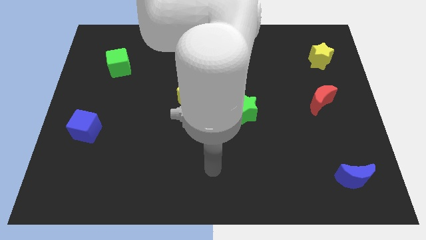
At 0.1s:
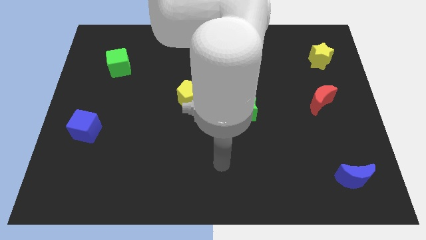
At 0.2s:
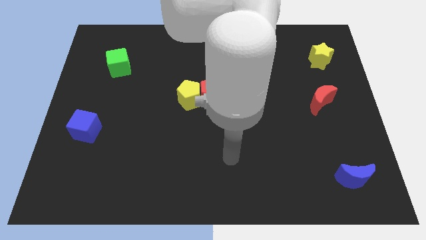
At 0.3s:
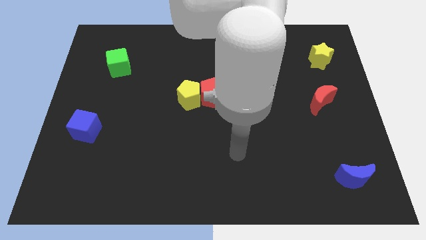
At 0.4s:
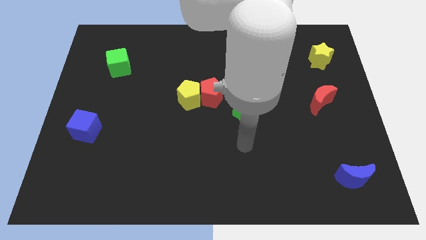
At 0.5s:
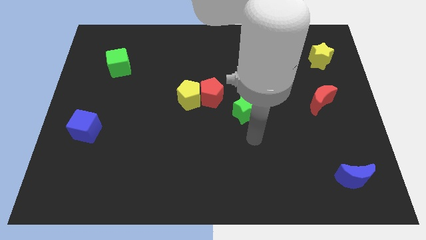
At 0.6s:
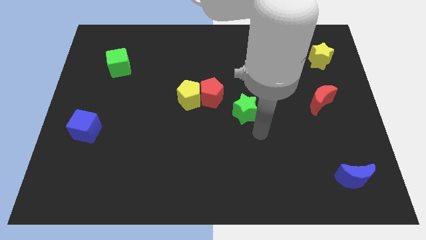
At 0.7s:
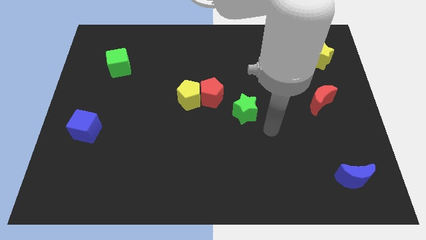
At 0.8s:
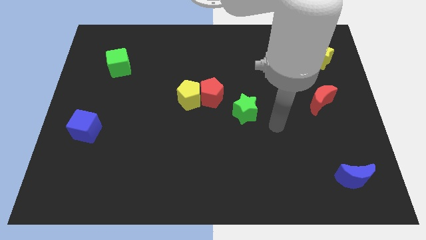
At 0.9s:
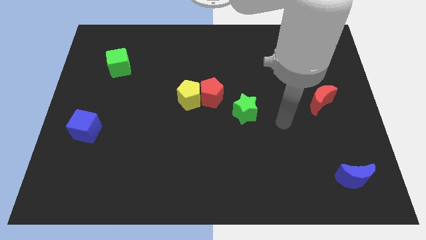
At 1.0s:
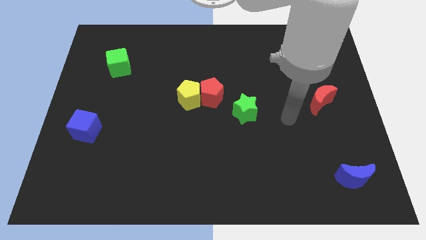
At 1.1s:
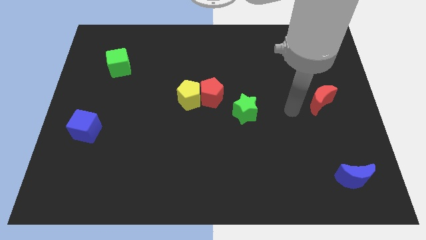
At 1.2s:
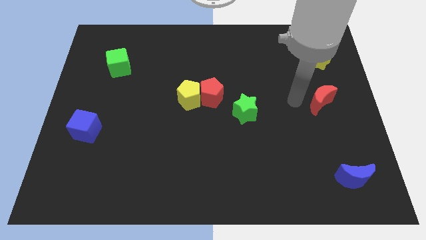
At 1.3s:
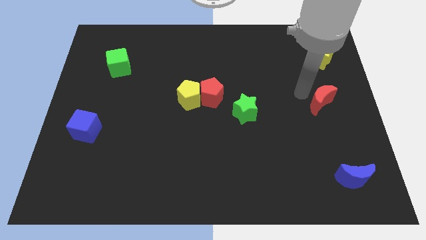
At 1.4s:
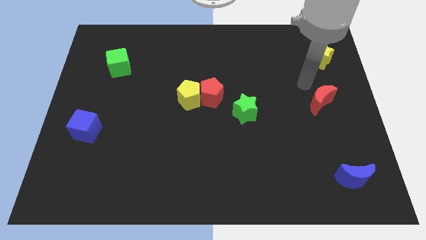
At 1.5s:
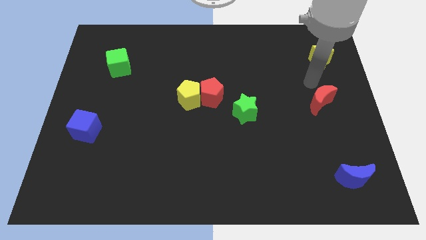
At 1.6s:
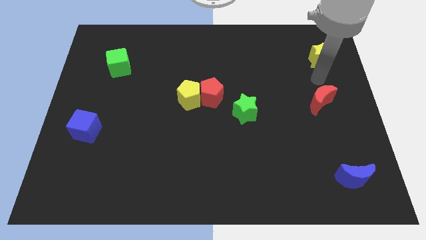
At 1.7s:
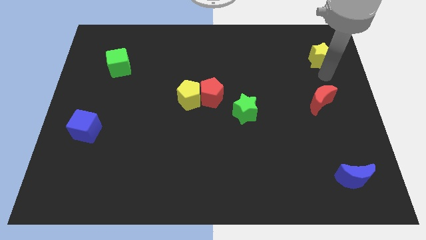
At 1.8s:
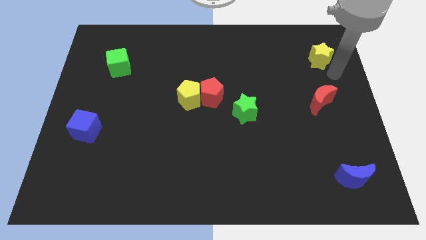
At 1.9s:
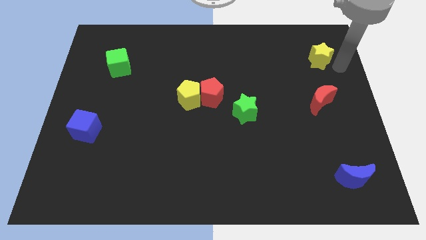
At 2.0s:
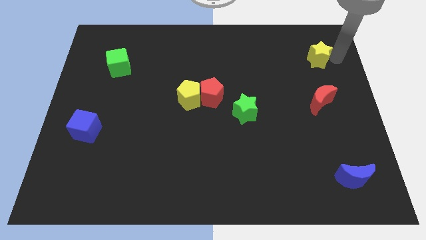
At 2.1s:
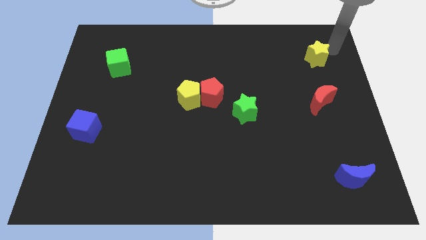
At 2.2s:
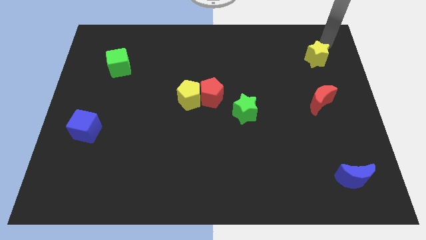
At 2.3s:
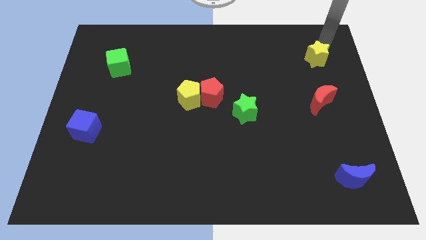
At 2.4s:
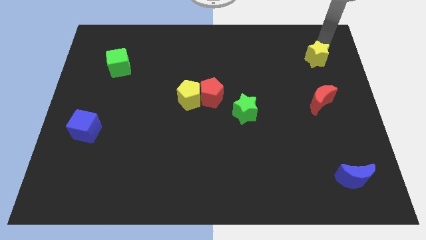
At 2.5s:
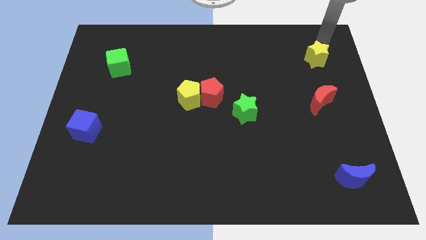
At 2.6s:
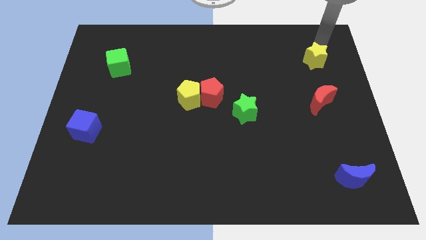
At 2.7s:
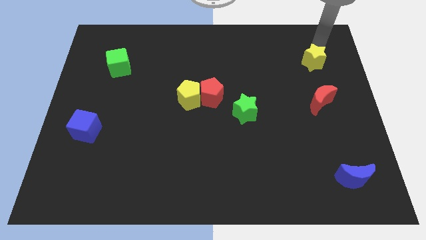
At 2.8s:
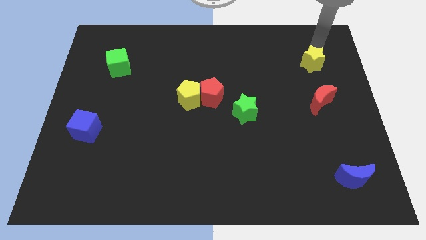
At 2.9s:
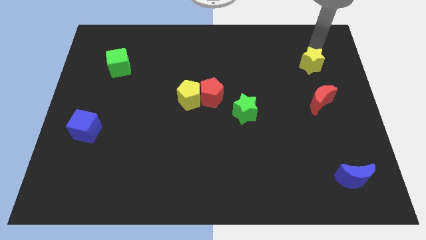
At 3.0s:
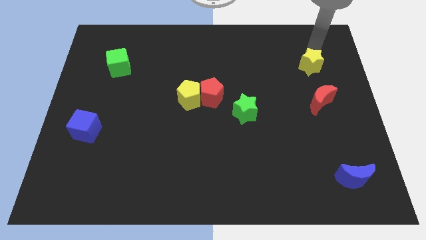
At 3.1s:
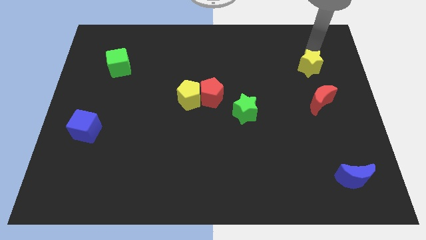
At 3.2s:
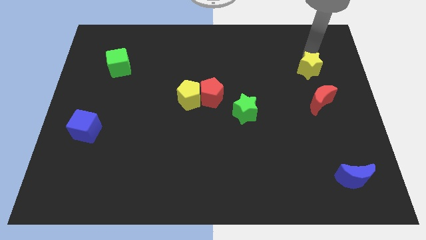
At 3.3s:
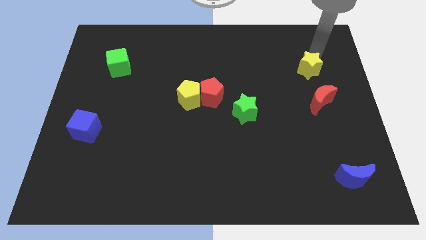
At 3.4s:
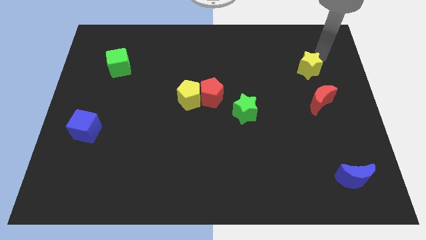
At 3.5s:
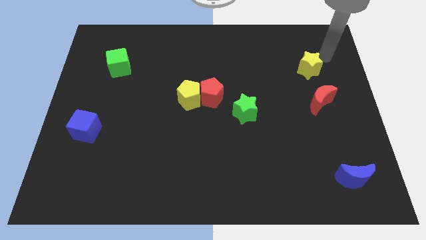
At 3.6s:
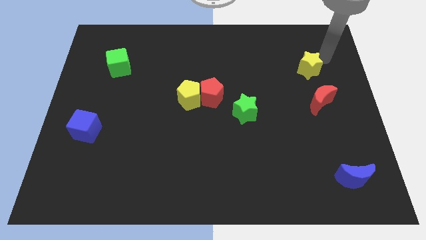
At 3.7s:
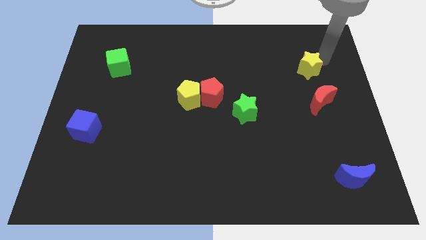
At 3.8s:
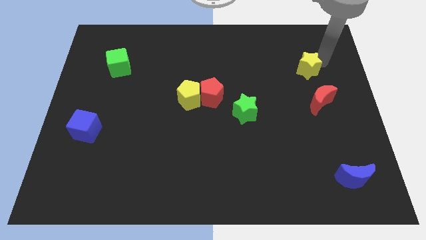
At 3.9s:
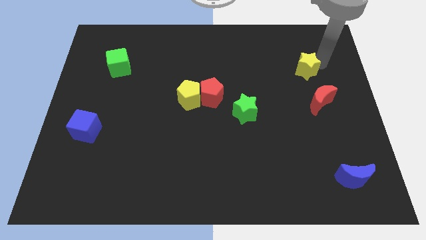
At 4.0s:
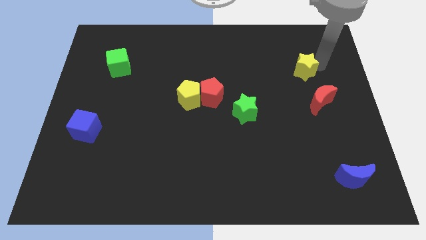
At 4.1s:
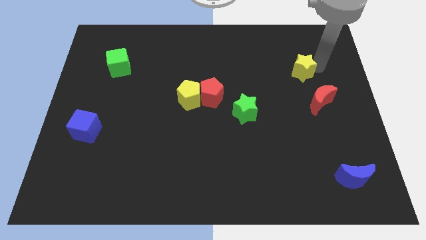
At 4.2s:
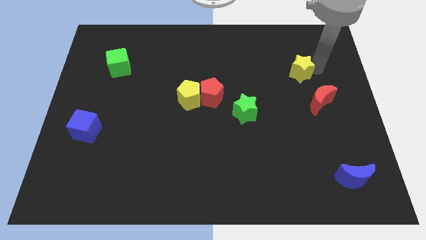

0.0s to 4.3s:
slightly slide the yellow star diagonally downwards and left

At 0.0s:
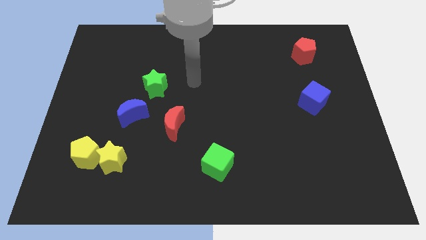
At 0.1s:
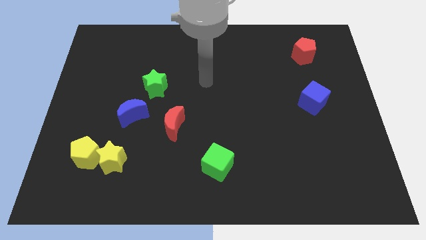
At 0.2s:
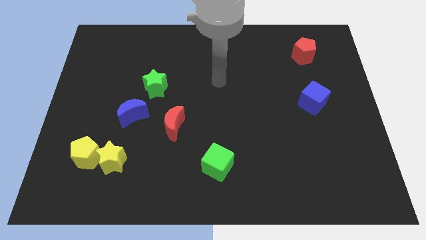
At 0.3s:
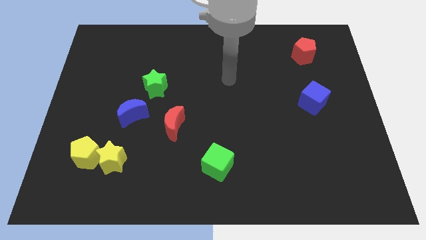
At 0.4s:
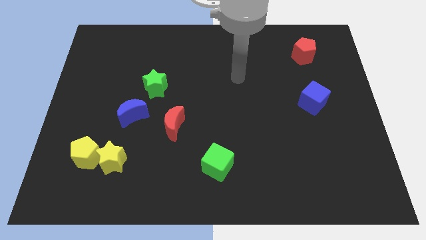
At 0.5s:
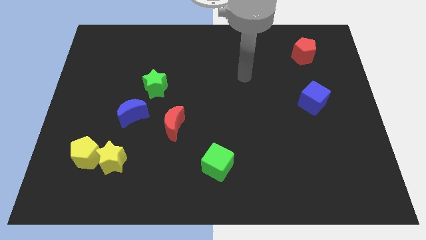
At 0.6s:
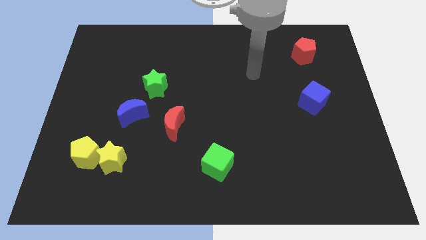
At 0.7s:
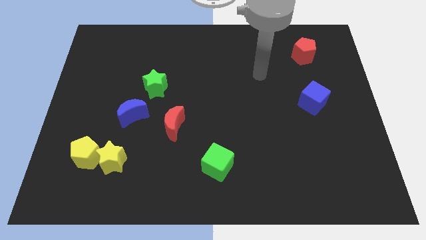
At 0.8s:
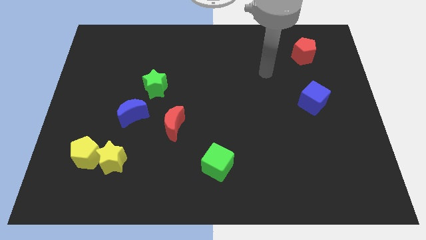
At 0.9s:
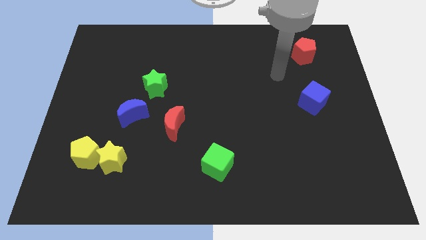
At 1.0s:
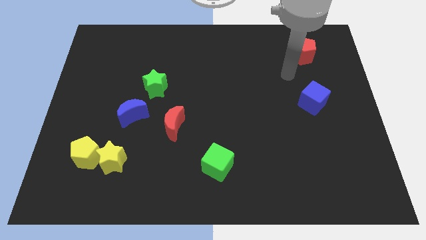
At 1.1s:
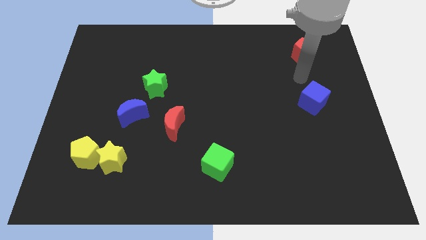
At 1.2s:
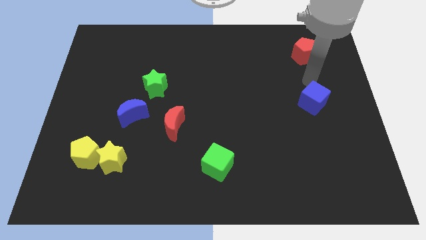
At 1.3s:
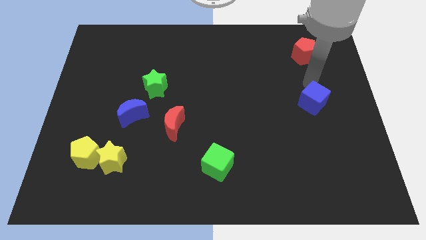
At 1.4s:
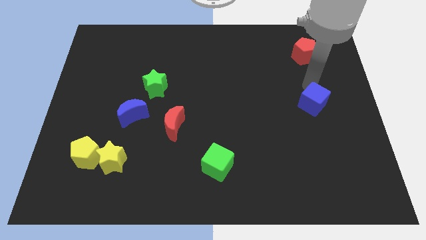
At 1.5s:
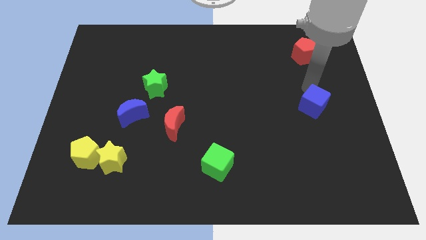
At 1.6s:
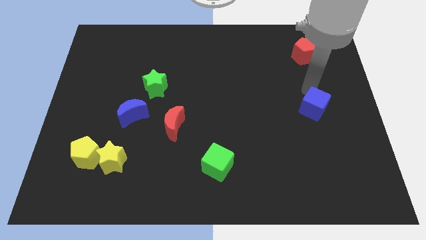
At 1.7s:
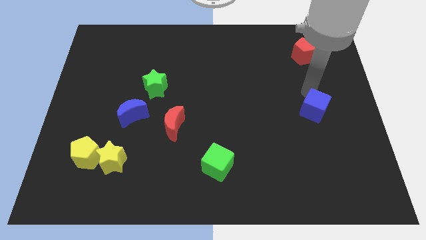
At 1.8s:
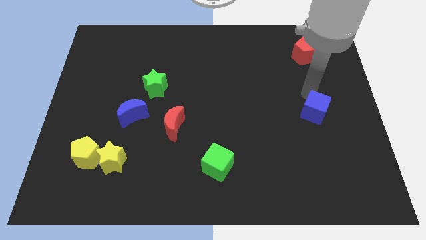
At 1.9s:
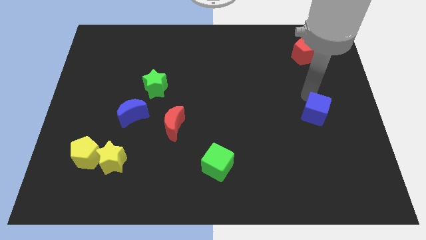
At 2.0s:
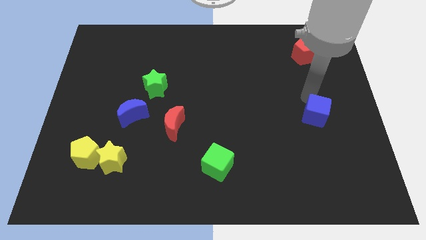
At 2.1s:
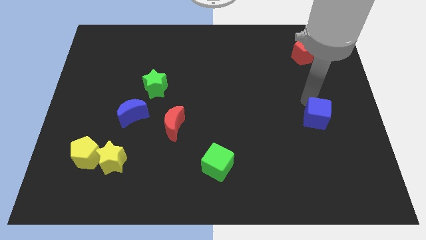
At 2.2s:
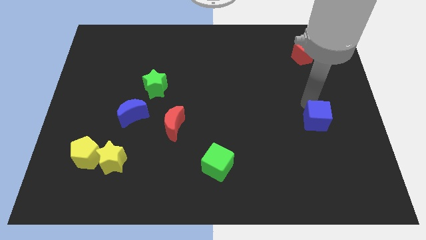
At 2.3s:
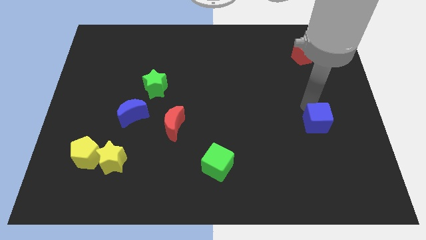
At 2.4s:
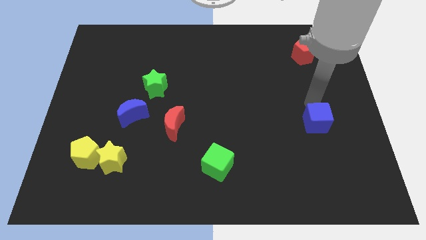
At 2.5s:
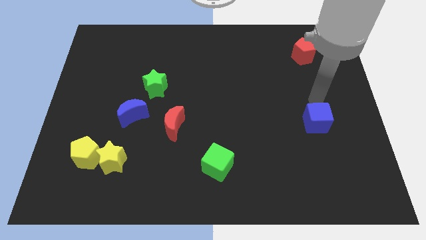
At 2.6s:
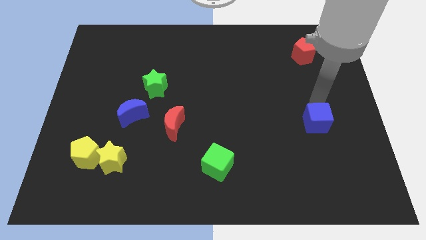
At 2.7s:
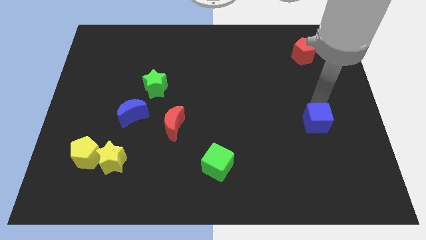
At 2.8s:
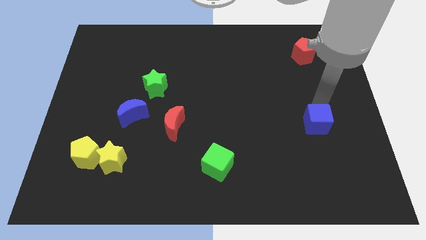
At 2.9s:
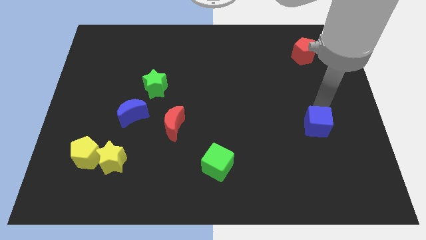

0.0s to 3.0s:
push the blue cube slightly down

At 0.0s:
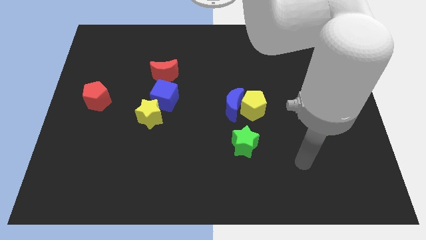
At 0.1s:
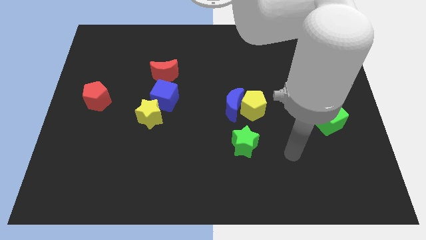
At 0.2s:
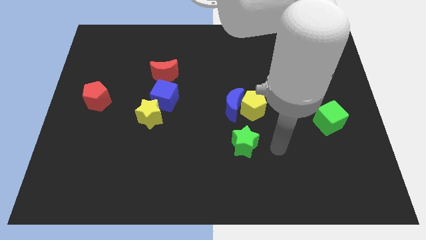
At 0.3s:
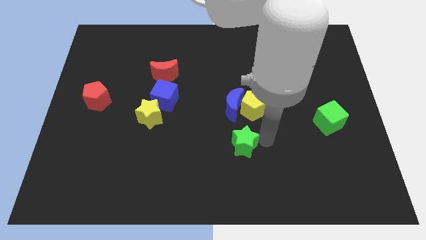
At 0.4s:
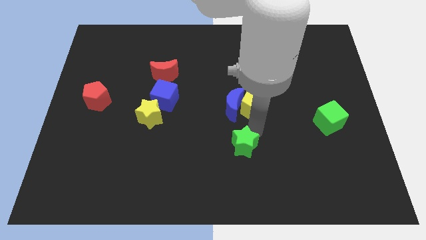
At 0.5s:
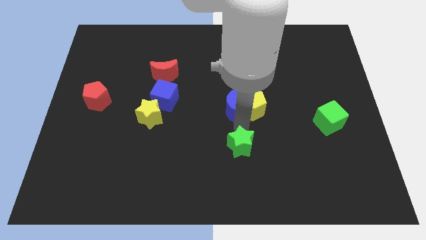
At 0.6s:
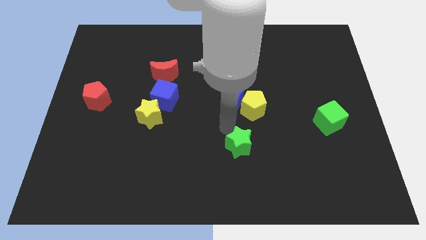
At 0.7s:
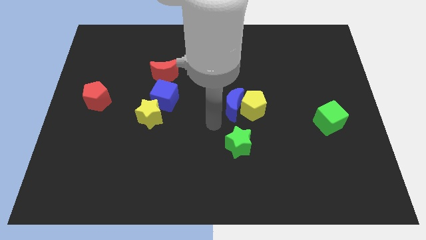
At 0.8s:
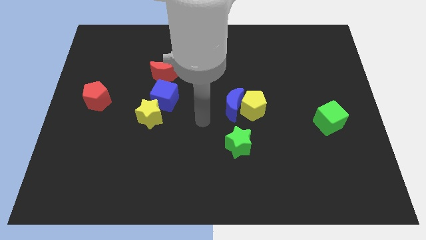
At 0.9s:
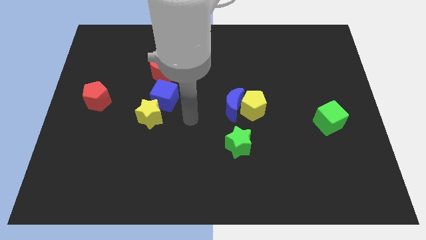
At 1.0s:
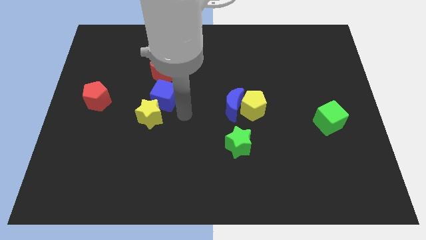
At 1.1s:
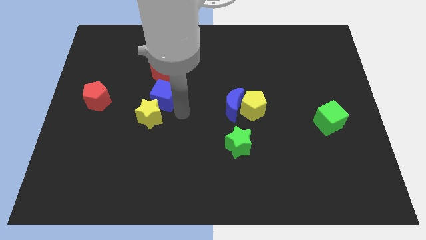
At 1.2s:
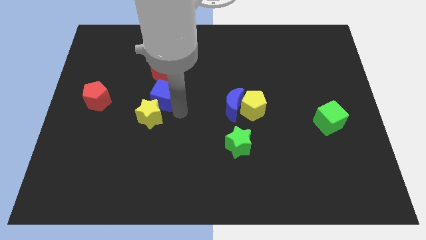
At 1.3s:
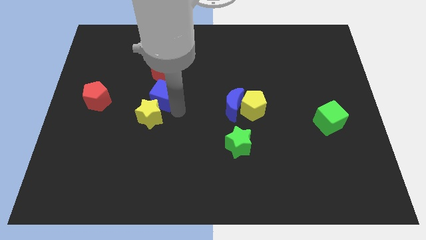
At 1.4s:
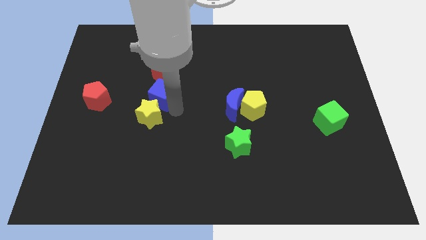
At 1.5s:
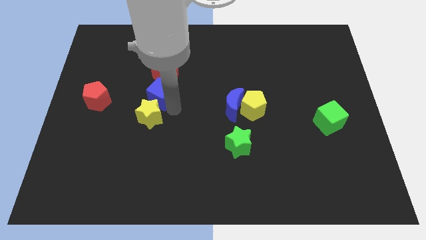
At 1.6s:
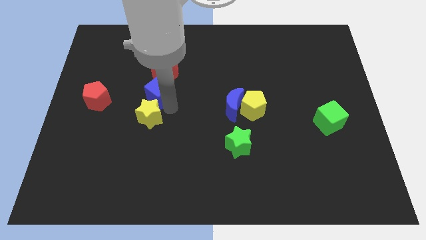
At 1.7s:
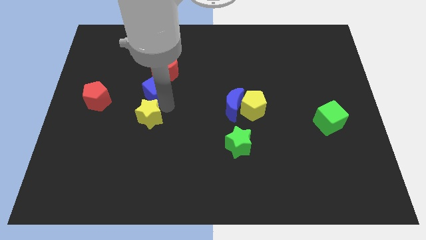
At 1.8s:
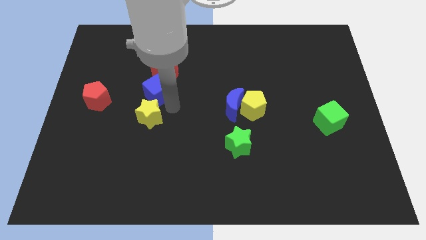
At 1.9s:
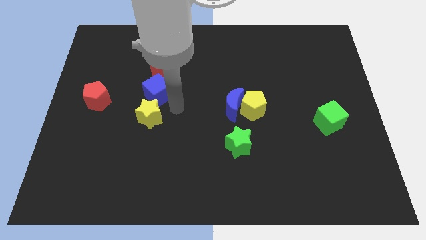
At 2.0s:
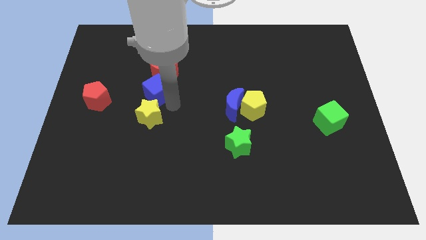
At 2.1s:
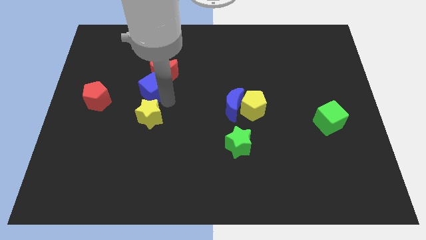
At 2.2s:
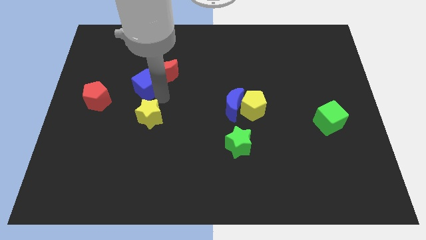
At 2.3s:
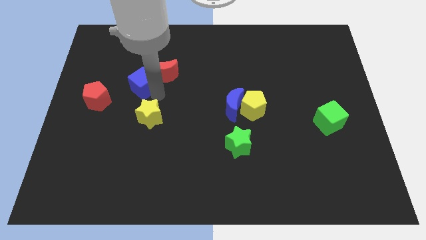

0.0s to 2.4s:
slide the blue cube up and left a bit
